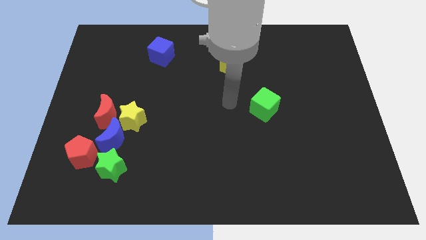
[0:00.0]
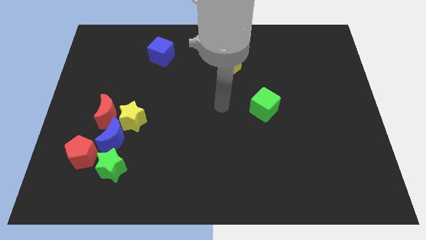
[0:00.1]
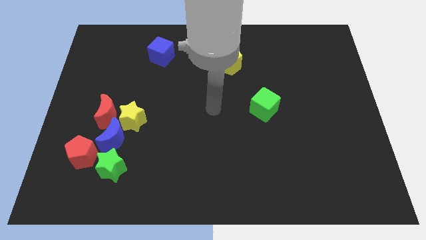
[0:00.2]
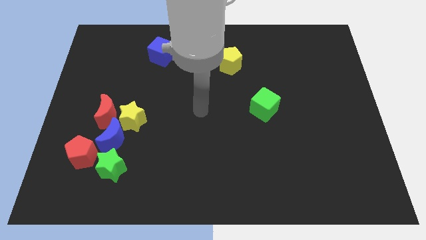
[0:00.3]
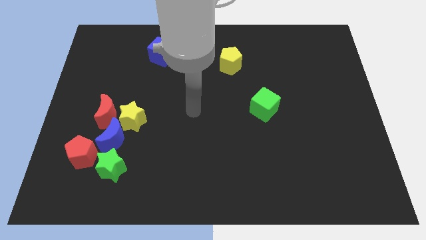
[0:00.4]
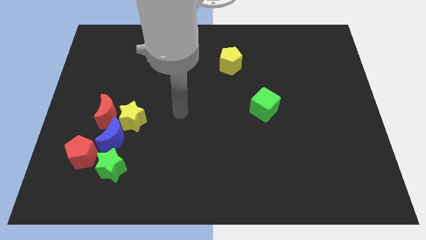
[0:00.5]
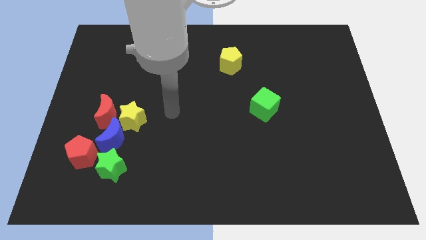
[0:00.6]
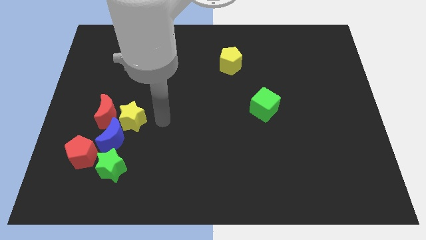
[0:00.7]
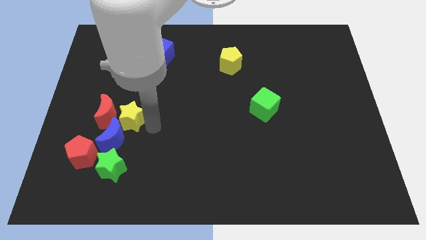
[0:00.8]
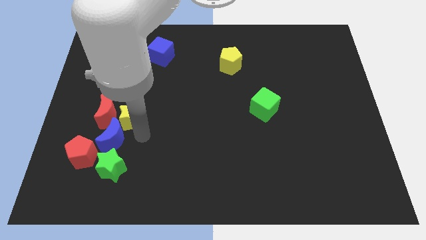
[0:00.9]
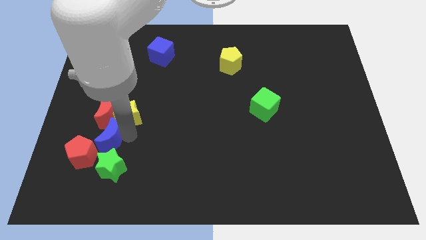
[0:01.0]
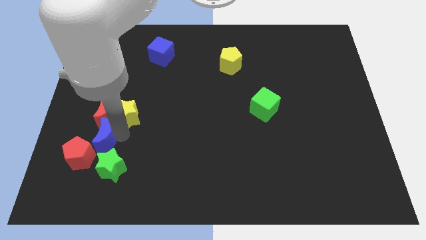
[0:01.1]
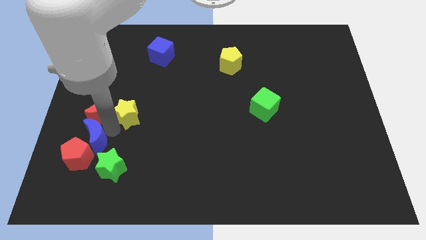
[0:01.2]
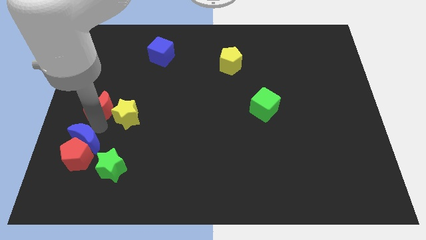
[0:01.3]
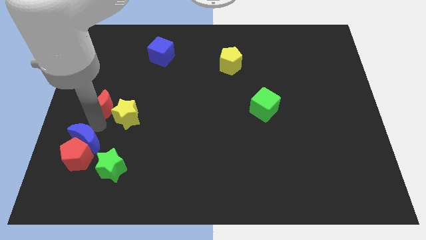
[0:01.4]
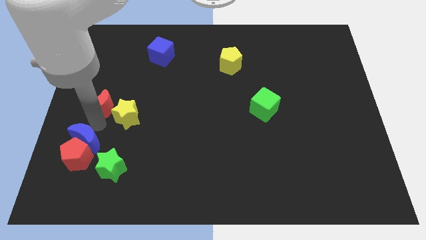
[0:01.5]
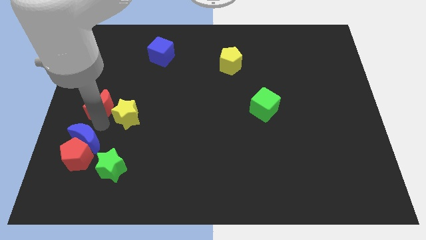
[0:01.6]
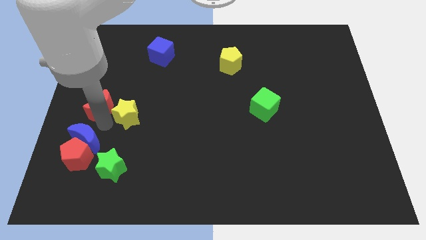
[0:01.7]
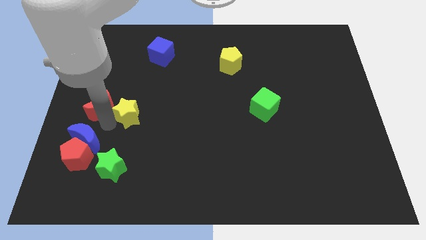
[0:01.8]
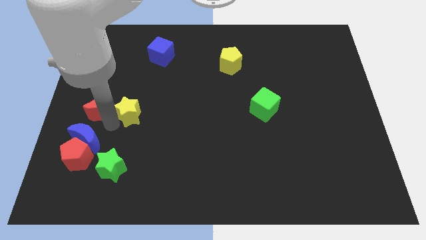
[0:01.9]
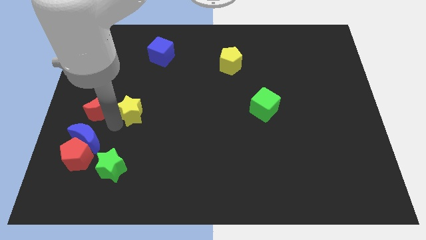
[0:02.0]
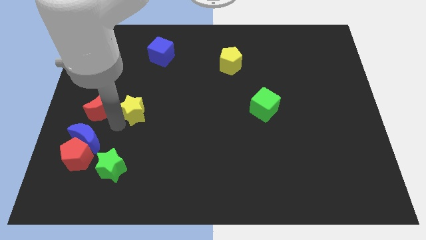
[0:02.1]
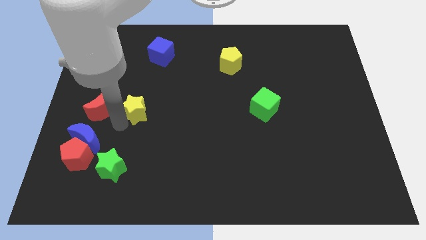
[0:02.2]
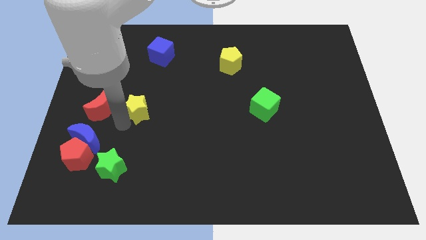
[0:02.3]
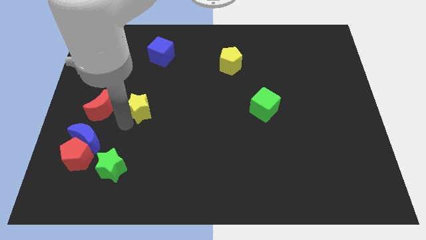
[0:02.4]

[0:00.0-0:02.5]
pull the yellow star apart from the blue moon and red moon

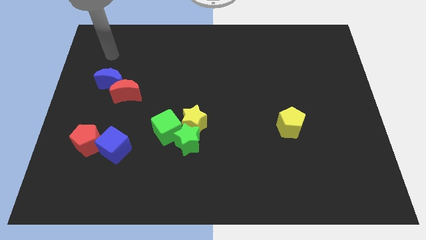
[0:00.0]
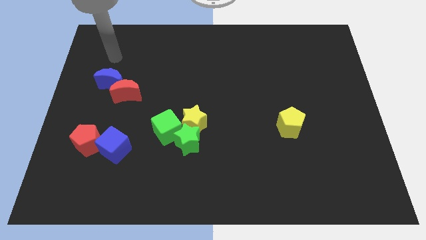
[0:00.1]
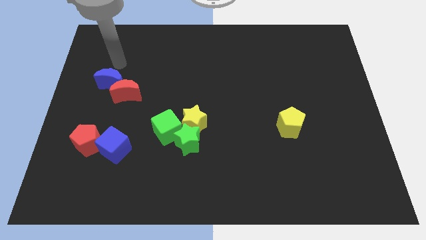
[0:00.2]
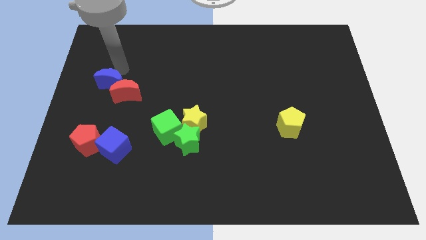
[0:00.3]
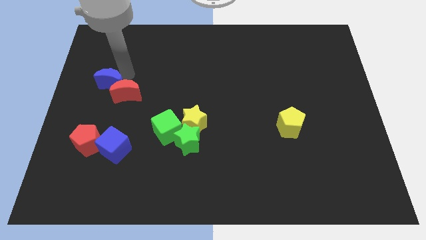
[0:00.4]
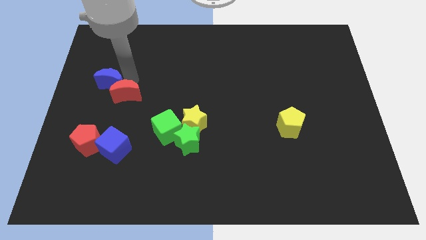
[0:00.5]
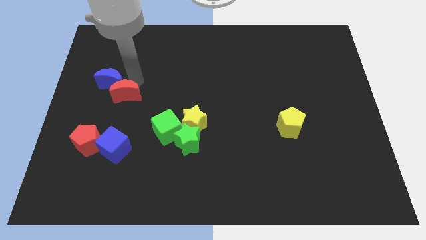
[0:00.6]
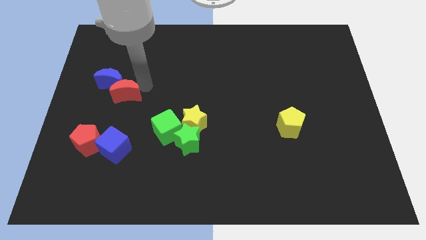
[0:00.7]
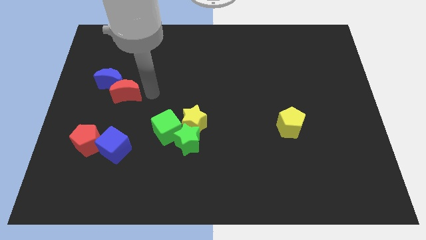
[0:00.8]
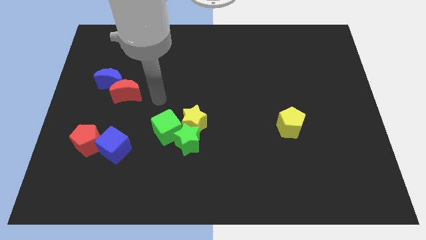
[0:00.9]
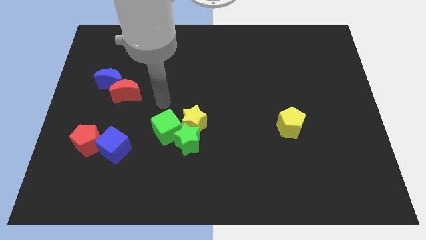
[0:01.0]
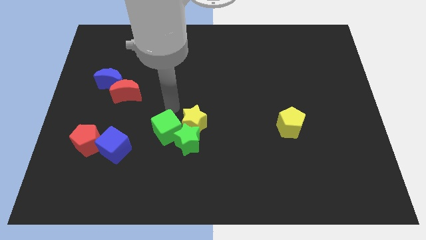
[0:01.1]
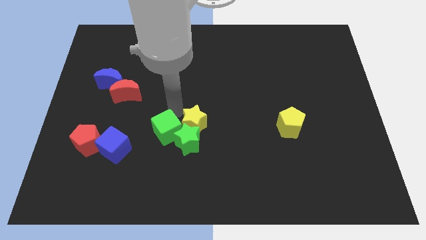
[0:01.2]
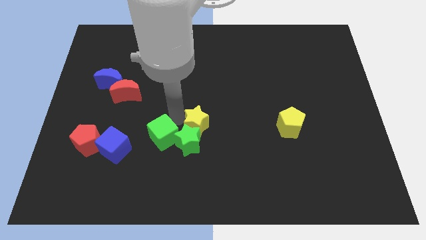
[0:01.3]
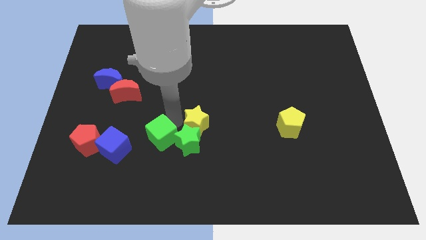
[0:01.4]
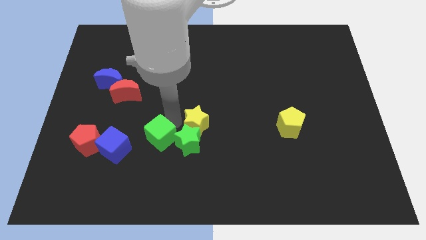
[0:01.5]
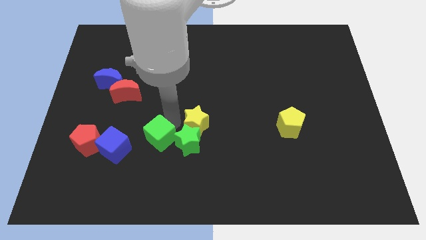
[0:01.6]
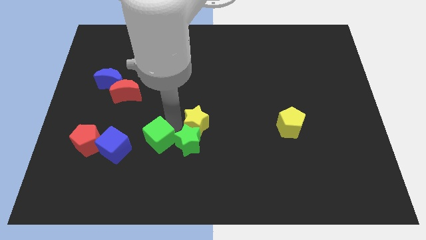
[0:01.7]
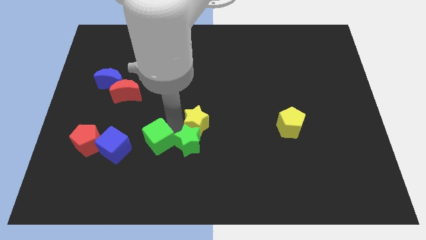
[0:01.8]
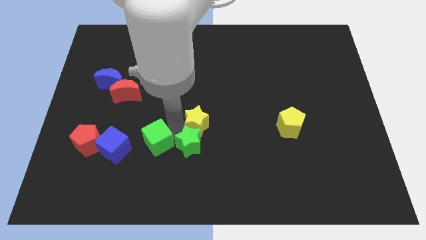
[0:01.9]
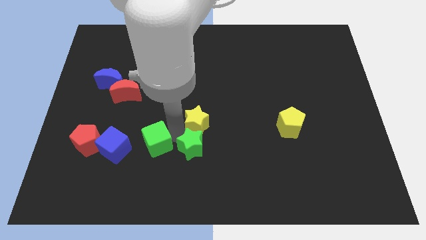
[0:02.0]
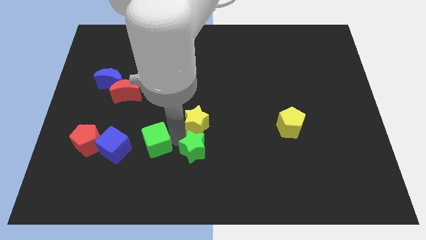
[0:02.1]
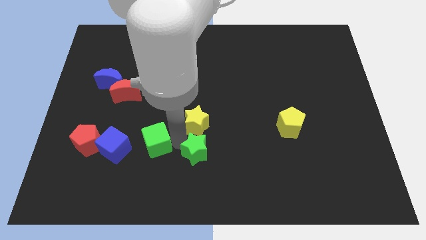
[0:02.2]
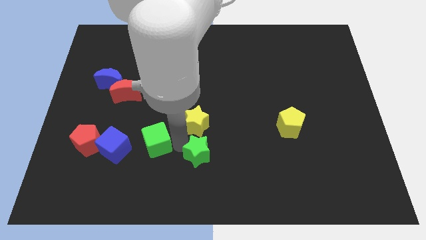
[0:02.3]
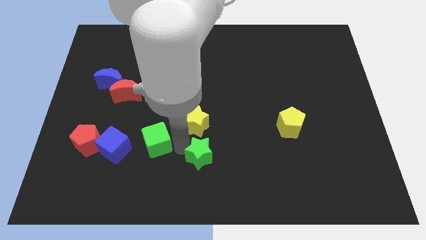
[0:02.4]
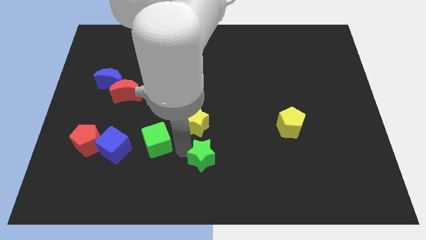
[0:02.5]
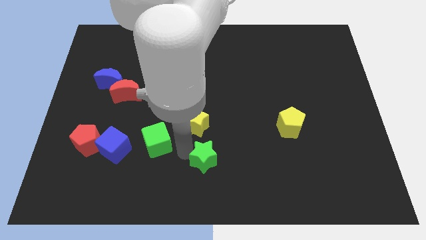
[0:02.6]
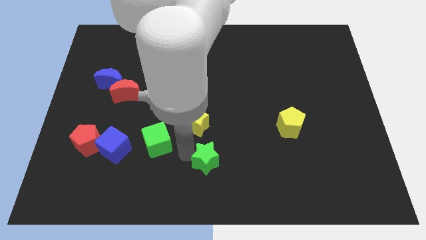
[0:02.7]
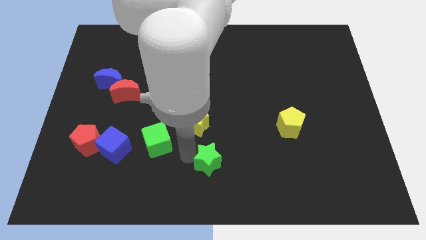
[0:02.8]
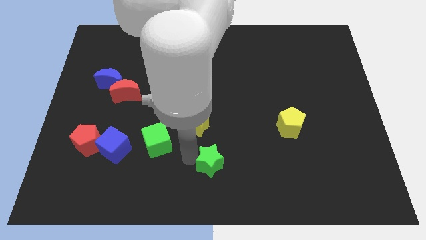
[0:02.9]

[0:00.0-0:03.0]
separate the green star from the yellow star and green cube

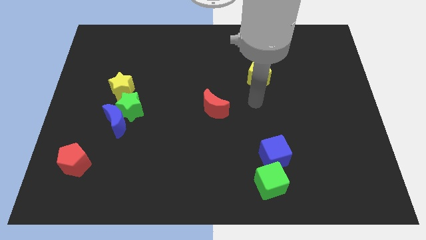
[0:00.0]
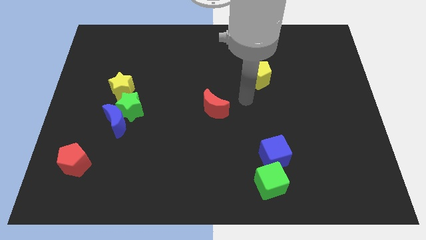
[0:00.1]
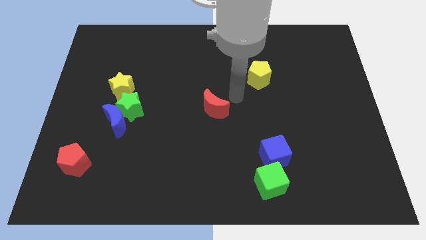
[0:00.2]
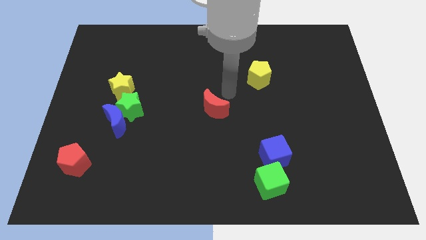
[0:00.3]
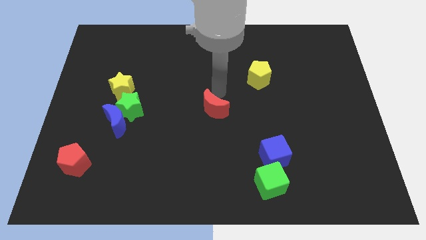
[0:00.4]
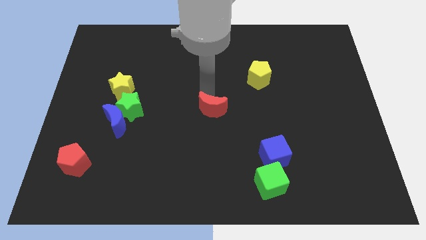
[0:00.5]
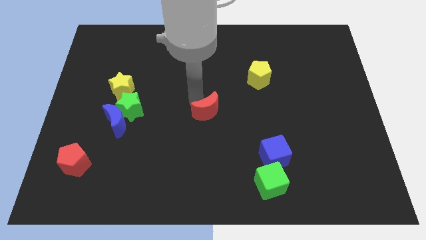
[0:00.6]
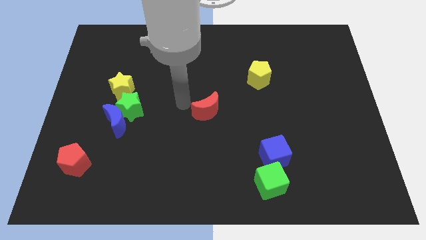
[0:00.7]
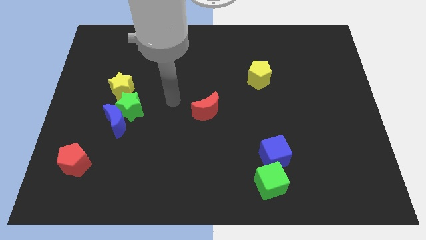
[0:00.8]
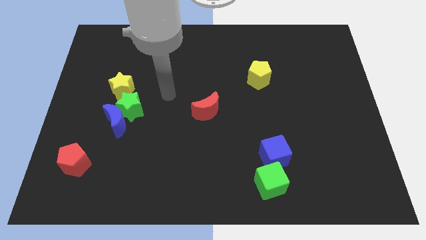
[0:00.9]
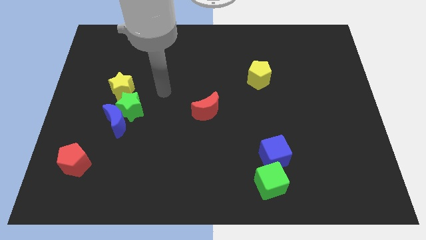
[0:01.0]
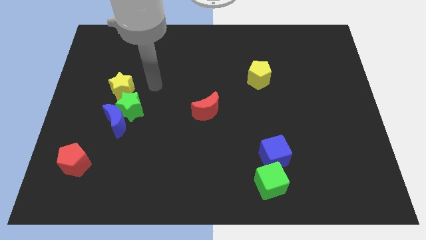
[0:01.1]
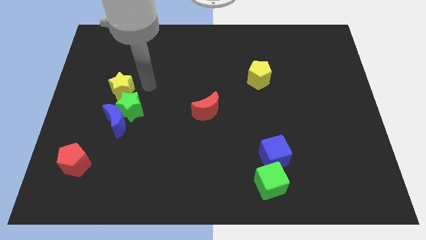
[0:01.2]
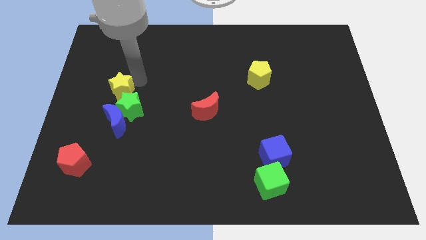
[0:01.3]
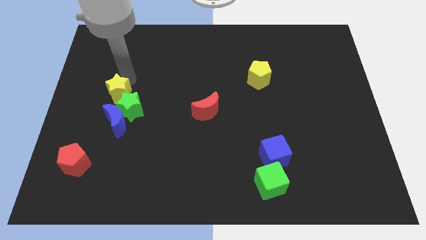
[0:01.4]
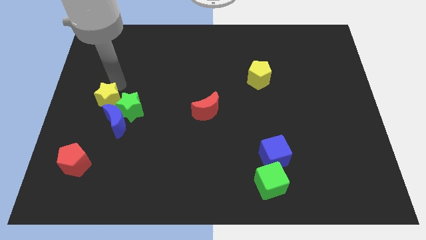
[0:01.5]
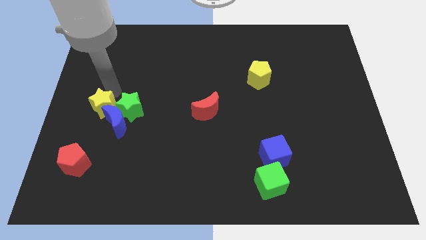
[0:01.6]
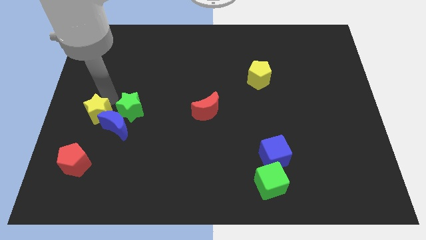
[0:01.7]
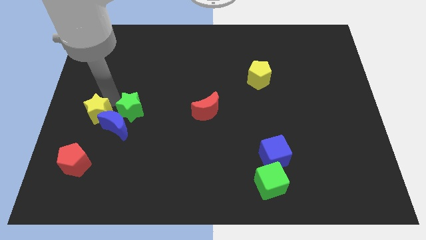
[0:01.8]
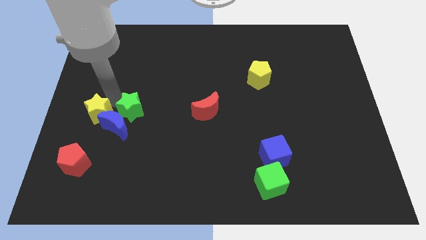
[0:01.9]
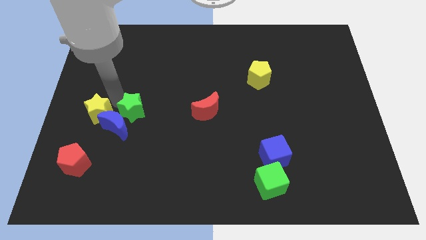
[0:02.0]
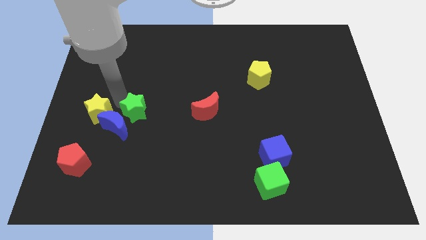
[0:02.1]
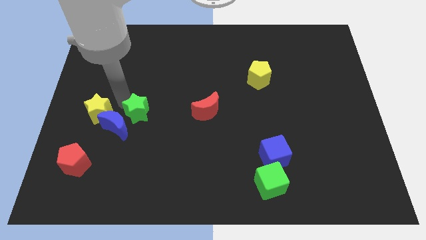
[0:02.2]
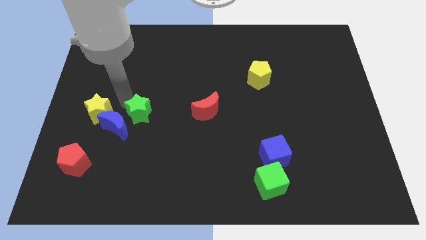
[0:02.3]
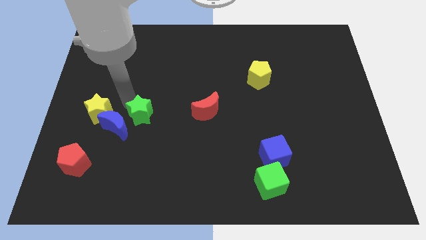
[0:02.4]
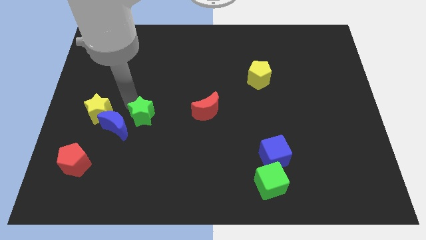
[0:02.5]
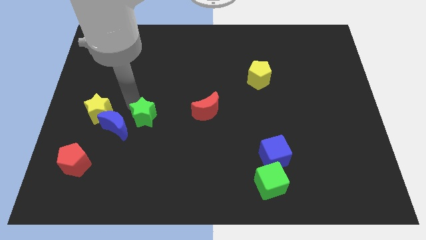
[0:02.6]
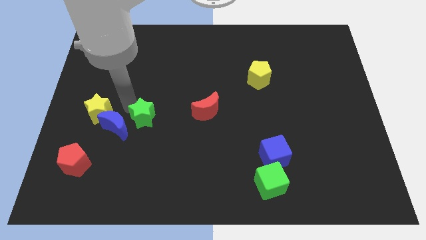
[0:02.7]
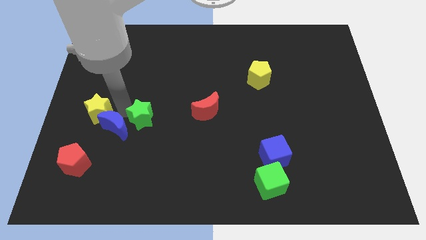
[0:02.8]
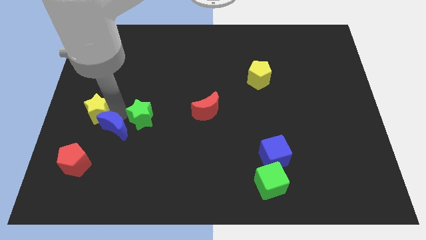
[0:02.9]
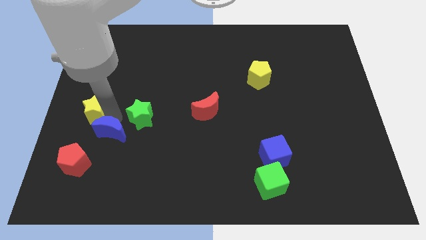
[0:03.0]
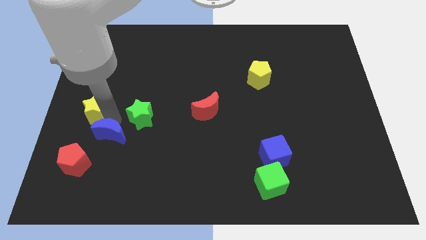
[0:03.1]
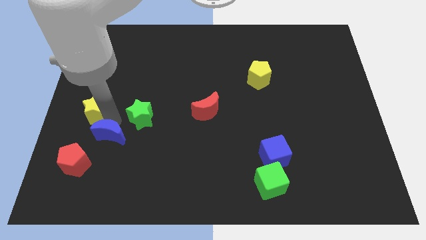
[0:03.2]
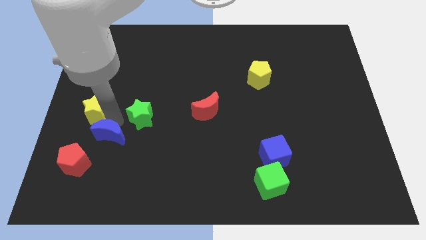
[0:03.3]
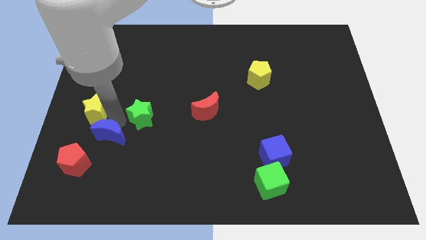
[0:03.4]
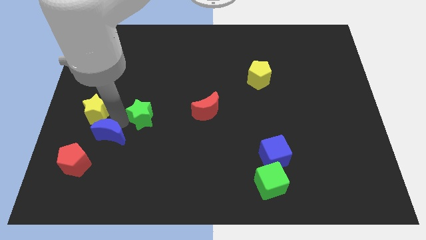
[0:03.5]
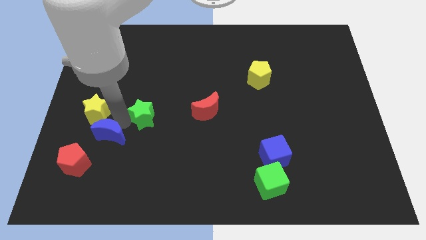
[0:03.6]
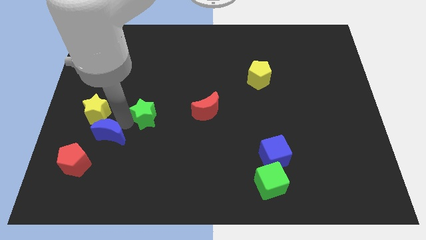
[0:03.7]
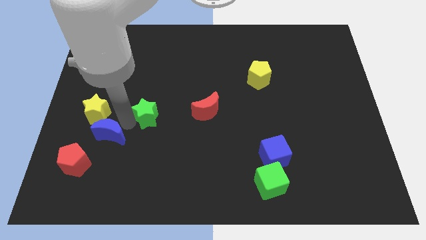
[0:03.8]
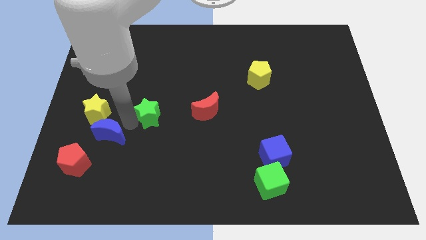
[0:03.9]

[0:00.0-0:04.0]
separate the green star from the blue moon and yellow star
